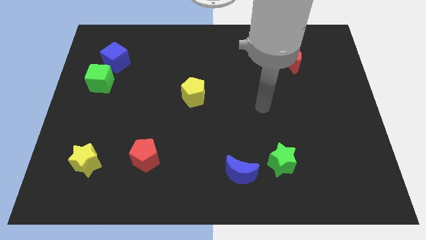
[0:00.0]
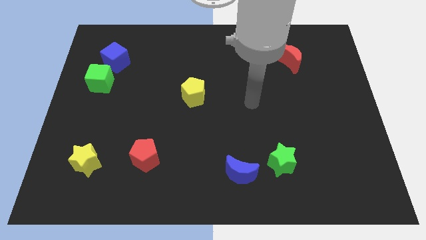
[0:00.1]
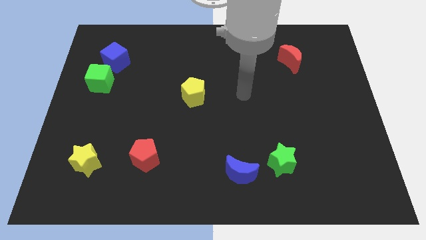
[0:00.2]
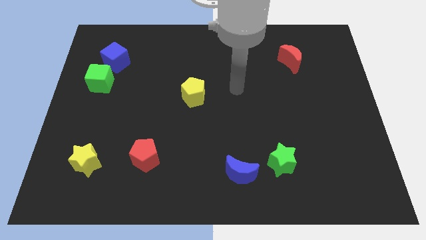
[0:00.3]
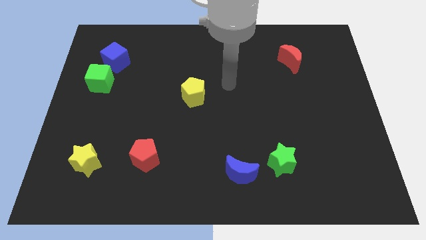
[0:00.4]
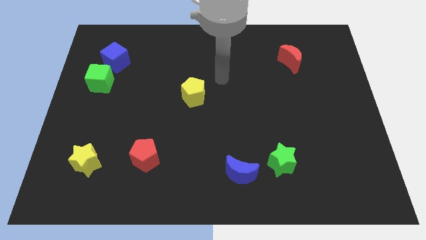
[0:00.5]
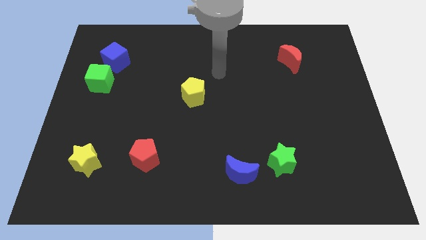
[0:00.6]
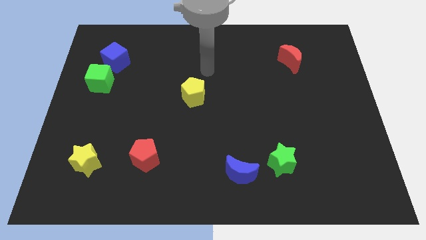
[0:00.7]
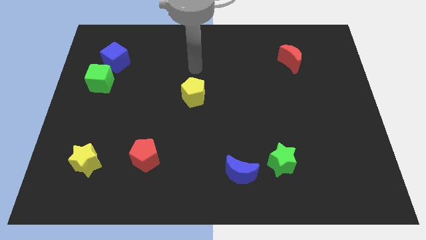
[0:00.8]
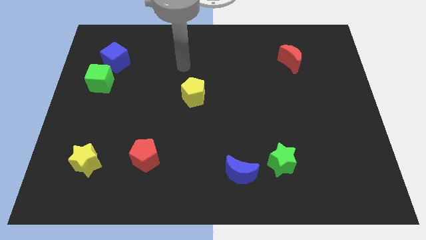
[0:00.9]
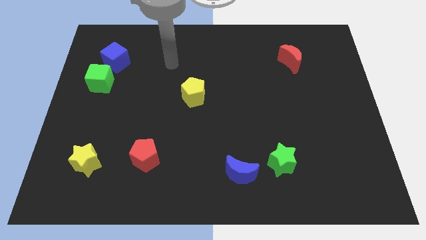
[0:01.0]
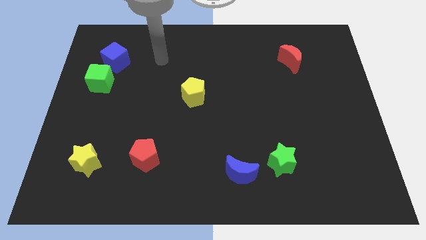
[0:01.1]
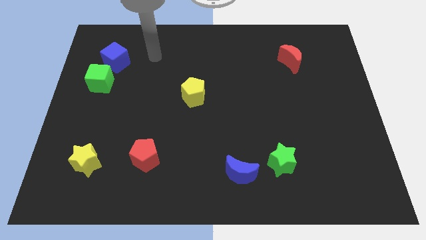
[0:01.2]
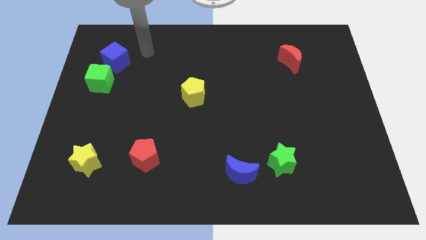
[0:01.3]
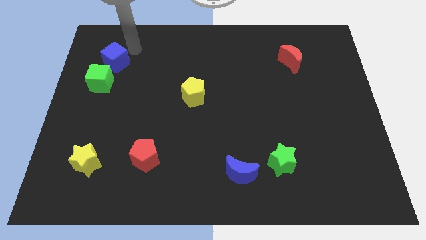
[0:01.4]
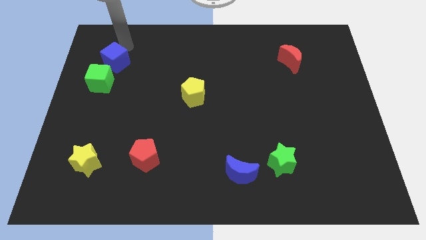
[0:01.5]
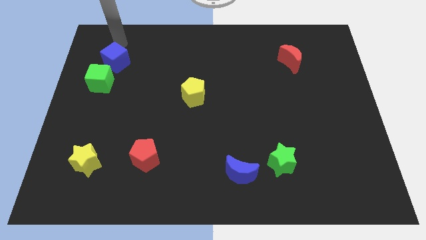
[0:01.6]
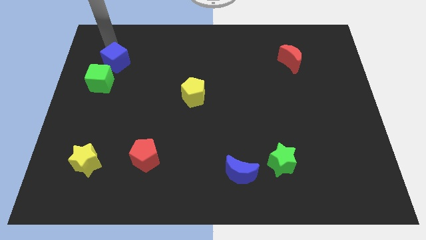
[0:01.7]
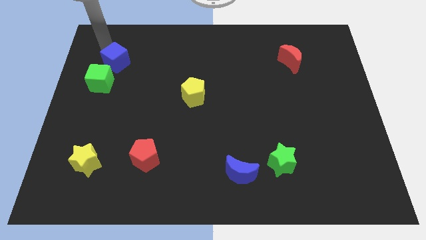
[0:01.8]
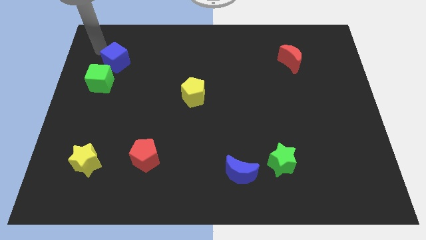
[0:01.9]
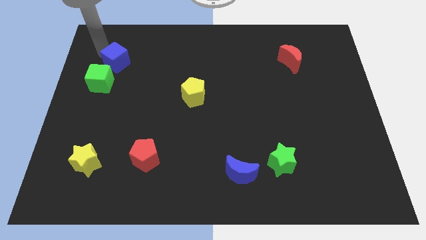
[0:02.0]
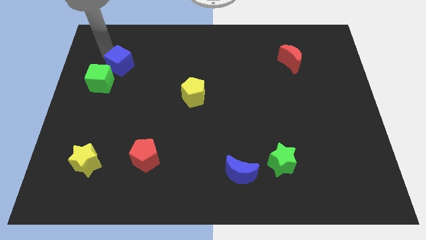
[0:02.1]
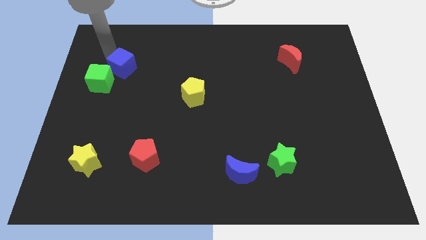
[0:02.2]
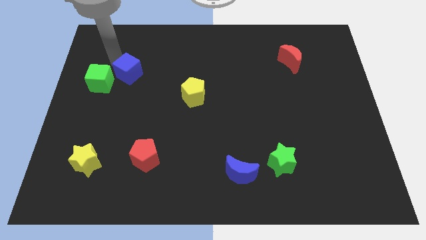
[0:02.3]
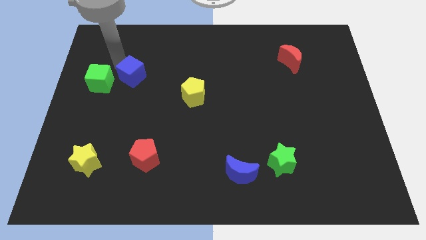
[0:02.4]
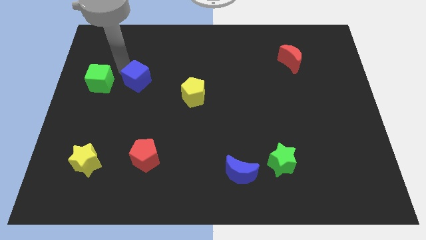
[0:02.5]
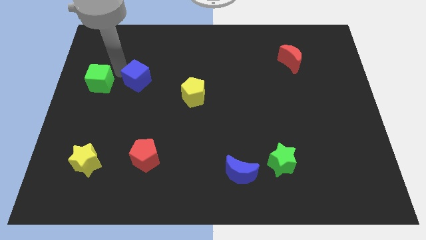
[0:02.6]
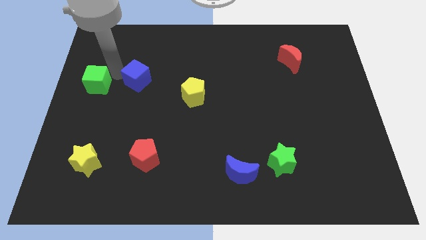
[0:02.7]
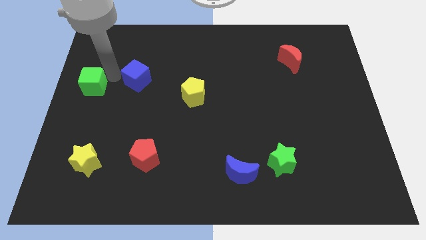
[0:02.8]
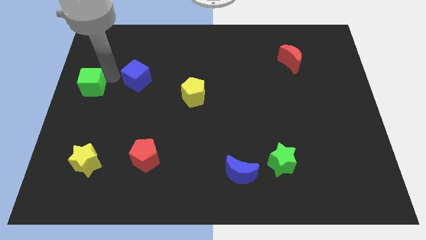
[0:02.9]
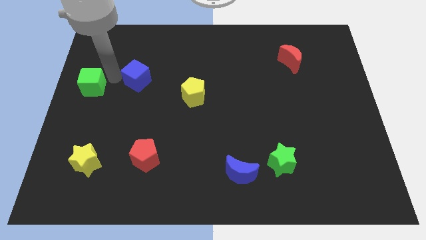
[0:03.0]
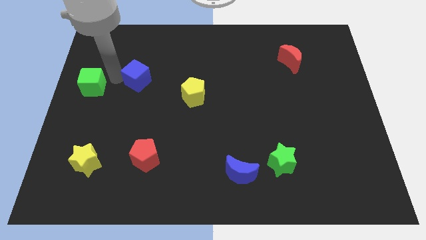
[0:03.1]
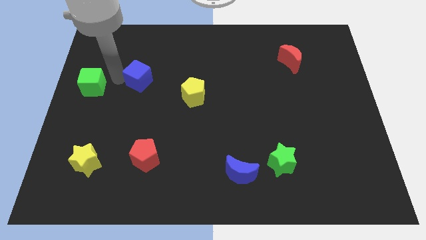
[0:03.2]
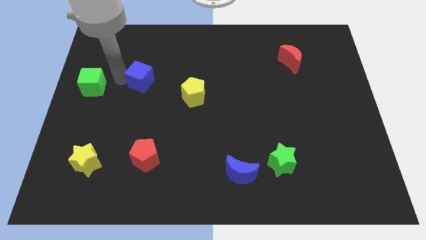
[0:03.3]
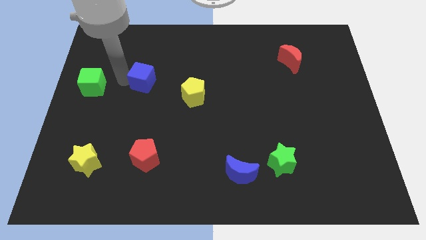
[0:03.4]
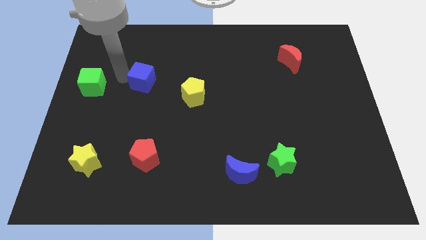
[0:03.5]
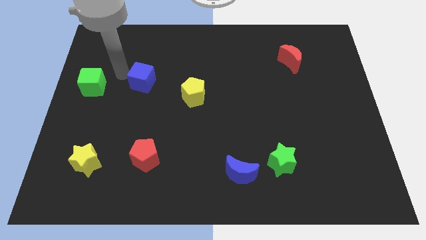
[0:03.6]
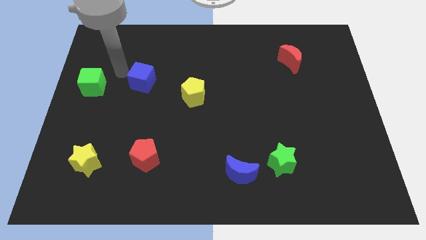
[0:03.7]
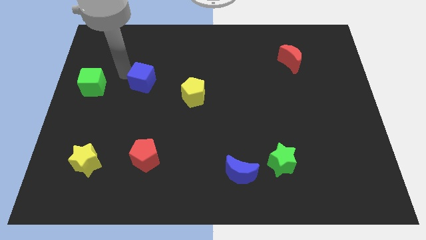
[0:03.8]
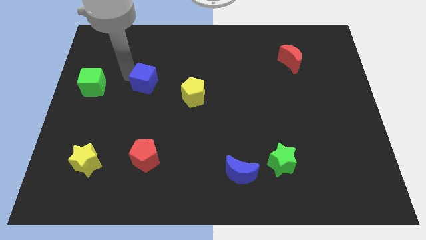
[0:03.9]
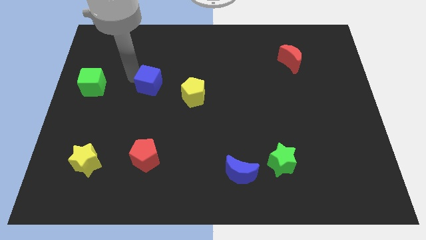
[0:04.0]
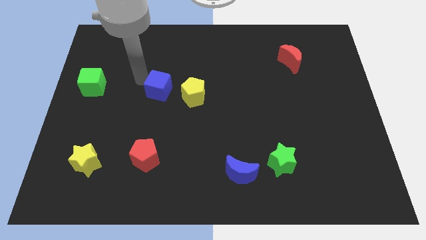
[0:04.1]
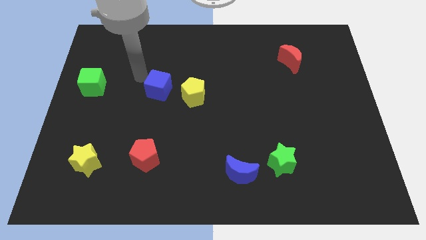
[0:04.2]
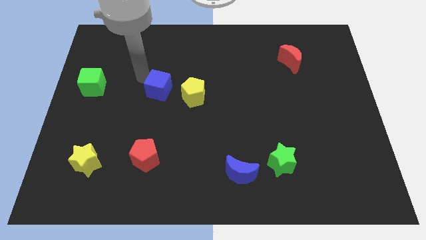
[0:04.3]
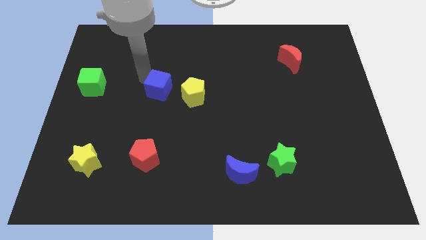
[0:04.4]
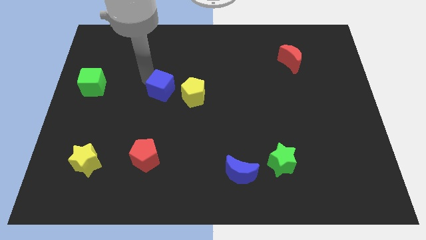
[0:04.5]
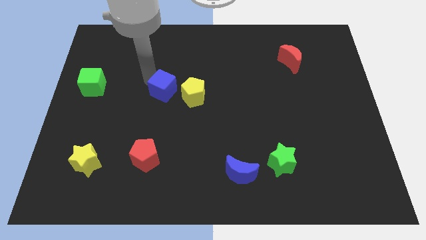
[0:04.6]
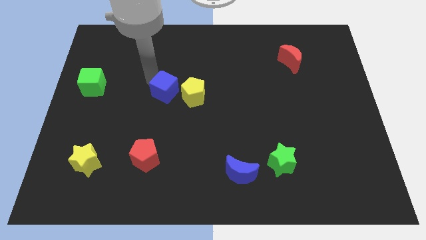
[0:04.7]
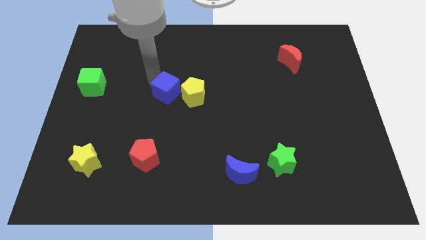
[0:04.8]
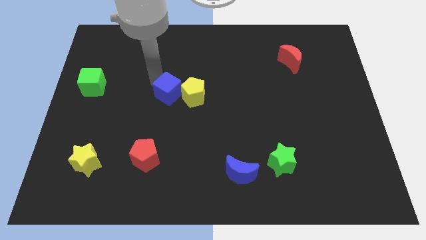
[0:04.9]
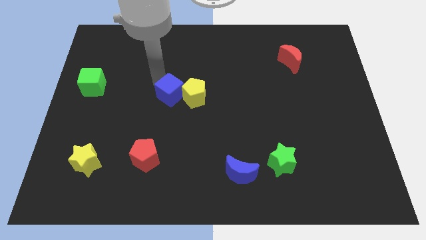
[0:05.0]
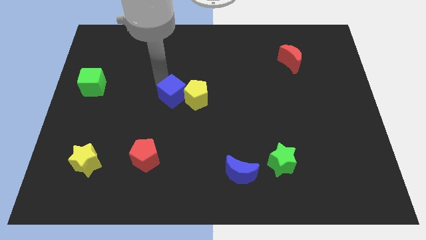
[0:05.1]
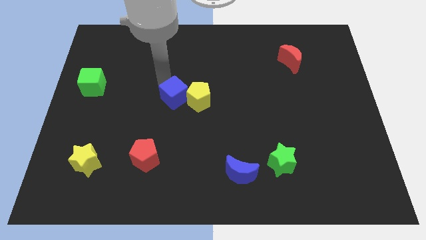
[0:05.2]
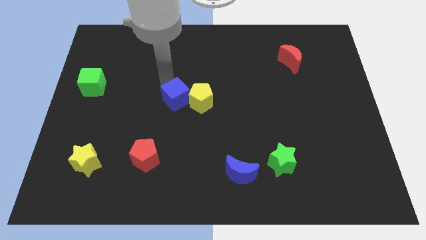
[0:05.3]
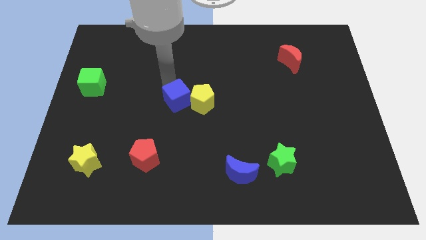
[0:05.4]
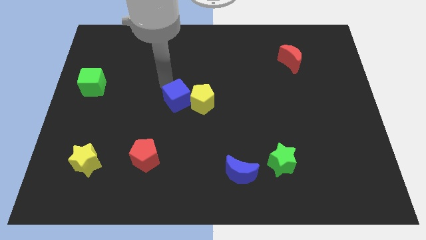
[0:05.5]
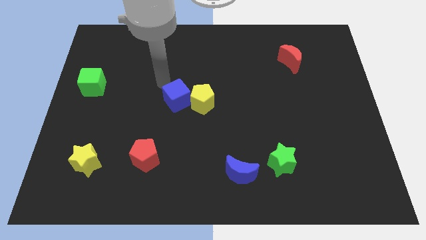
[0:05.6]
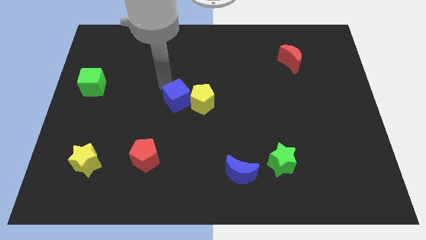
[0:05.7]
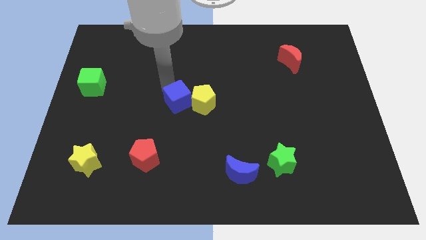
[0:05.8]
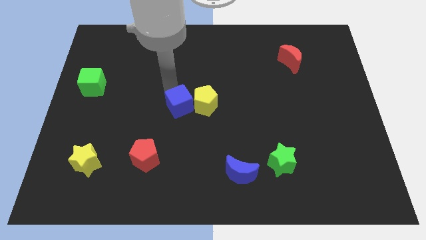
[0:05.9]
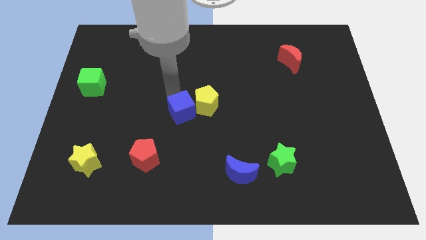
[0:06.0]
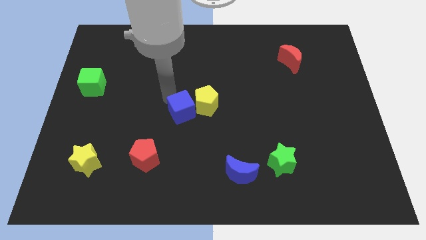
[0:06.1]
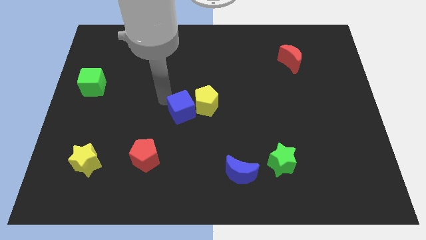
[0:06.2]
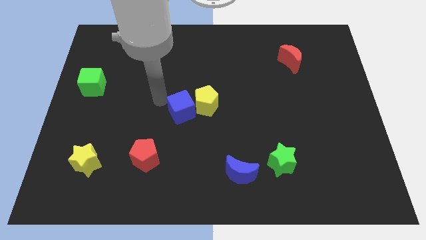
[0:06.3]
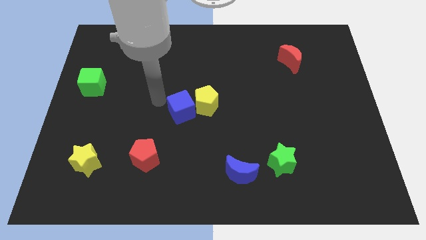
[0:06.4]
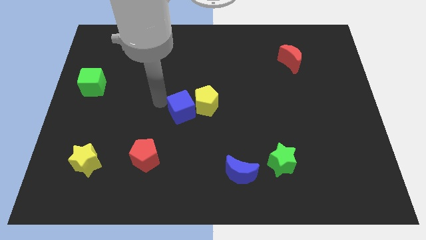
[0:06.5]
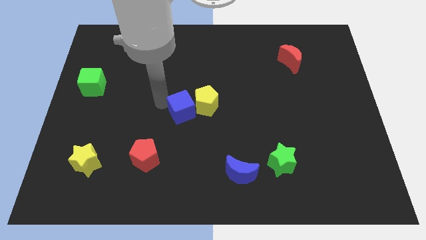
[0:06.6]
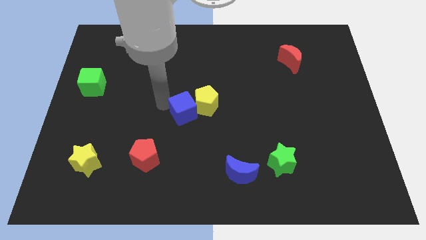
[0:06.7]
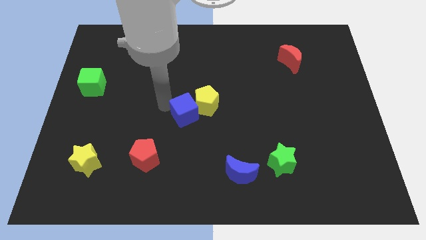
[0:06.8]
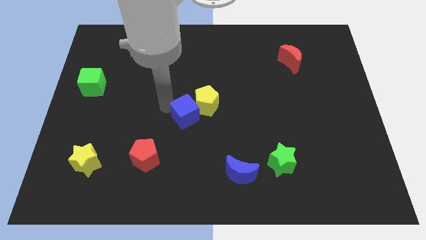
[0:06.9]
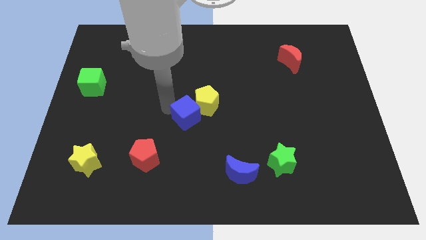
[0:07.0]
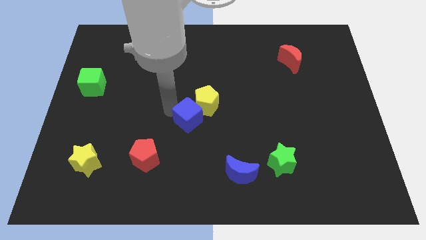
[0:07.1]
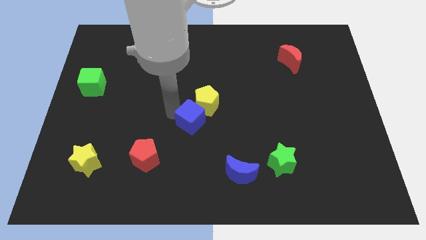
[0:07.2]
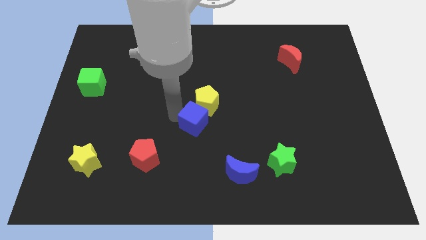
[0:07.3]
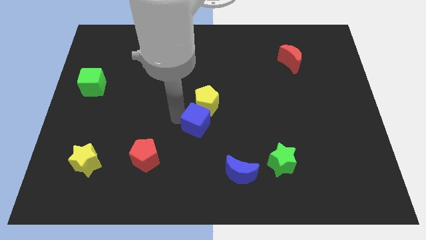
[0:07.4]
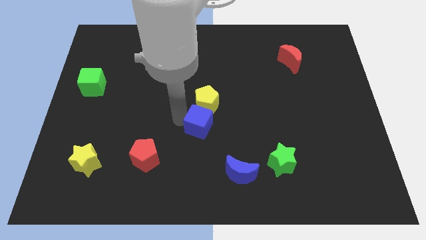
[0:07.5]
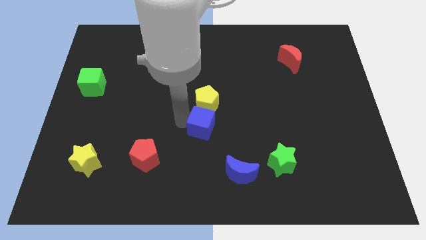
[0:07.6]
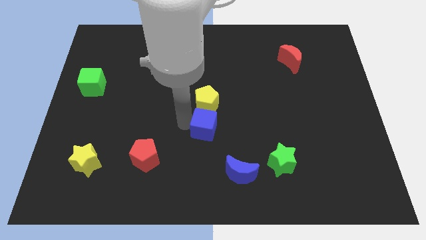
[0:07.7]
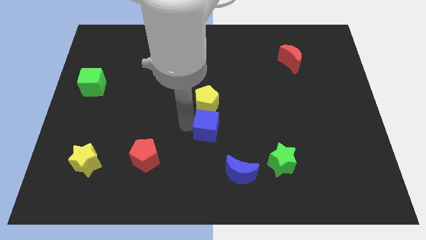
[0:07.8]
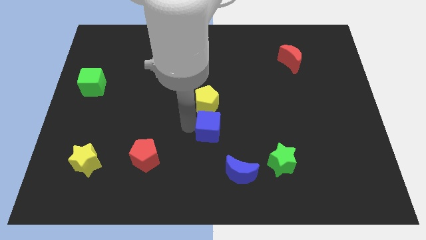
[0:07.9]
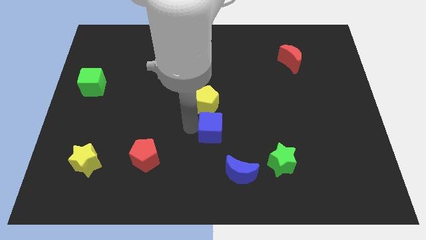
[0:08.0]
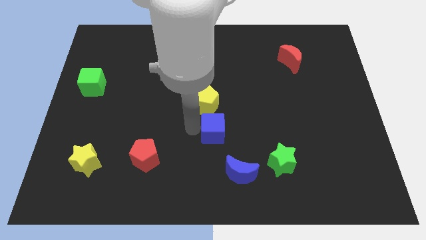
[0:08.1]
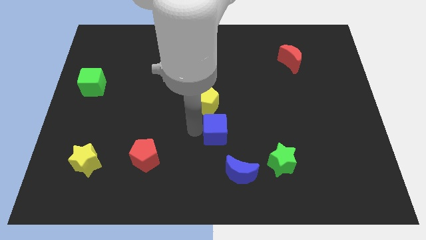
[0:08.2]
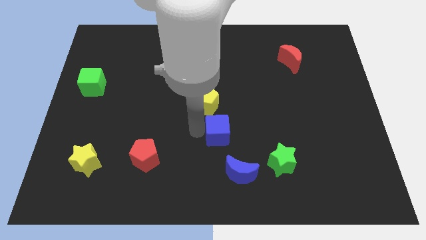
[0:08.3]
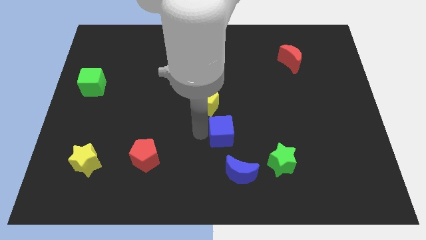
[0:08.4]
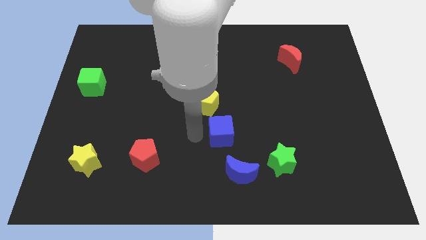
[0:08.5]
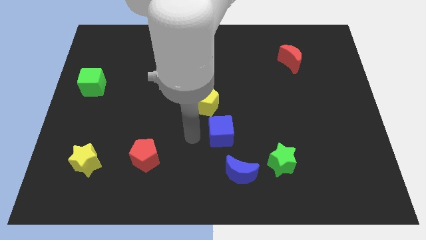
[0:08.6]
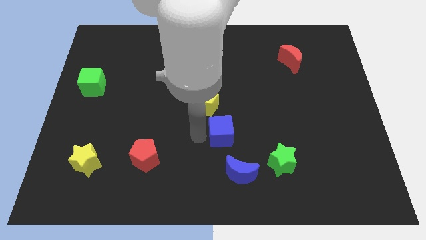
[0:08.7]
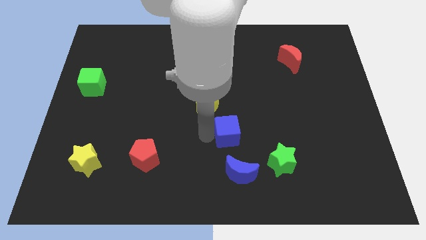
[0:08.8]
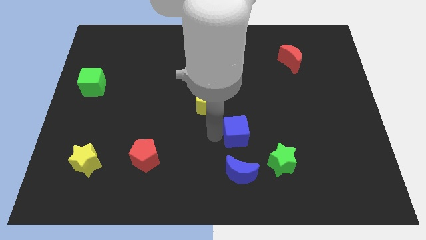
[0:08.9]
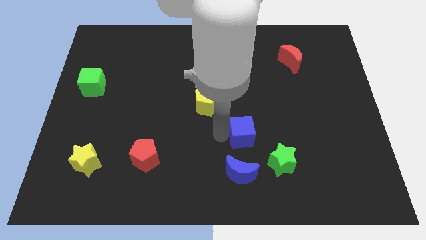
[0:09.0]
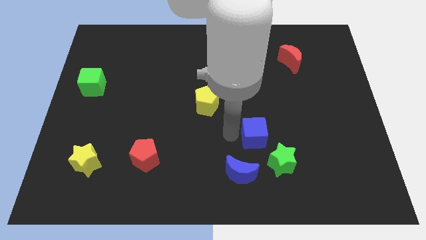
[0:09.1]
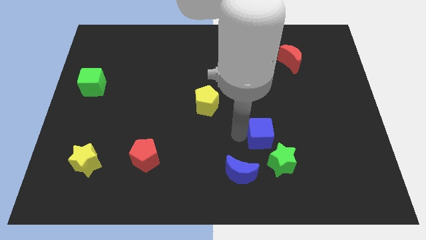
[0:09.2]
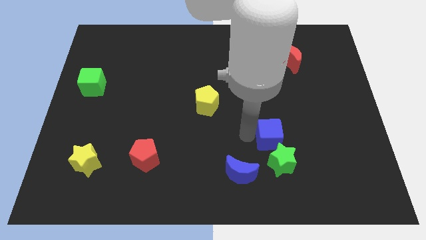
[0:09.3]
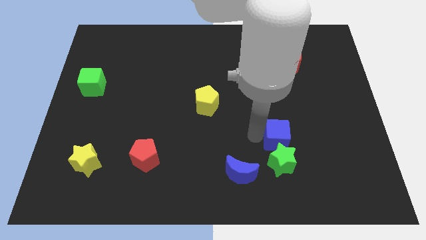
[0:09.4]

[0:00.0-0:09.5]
push the blue cube diagonally up and to the right of the green star
